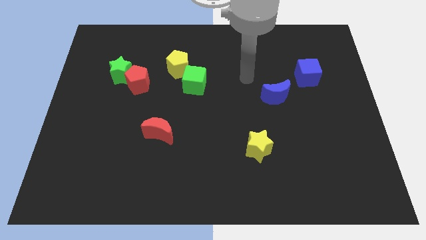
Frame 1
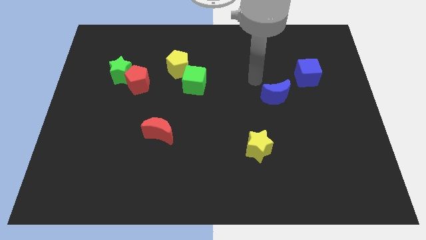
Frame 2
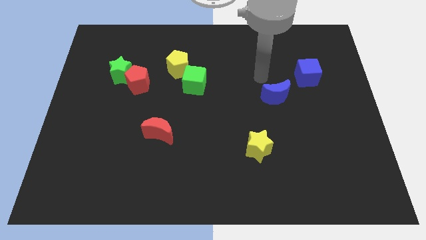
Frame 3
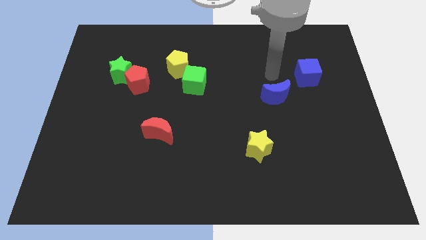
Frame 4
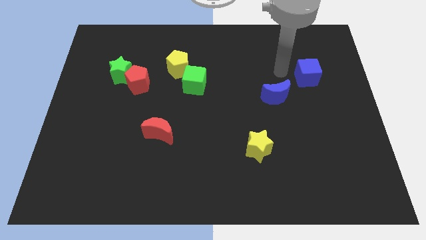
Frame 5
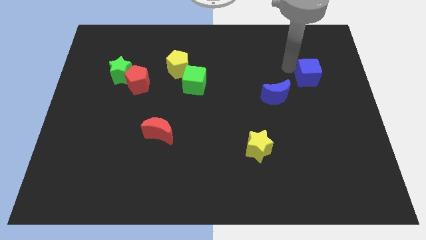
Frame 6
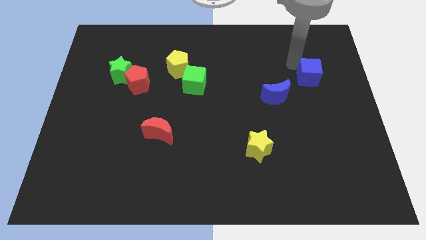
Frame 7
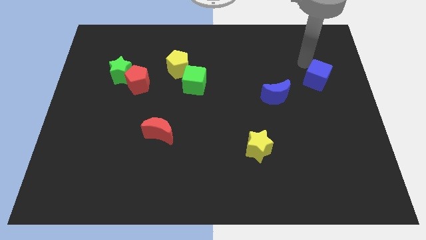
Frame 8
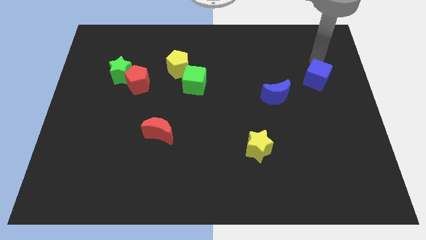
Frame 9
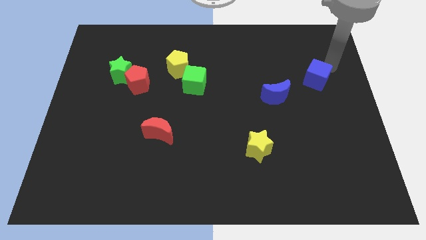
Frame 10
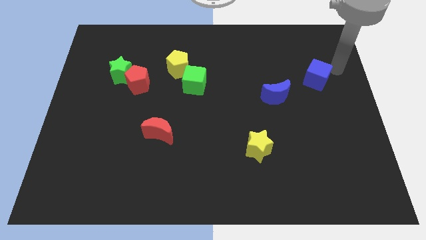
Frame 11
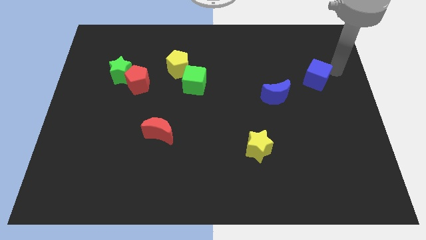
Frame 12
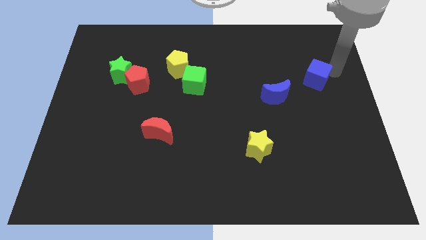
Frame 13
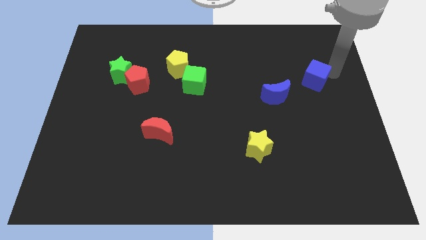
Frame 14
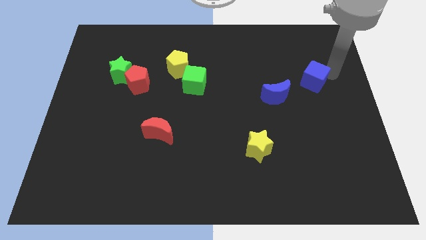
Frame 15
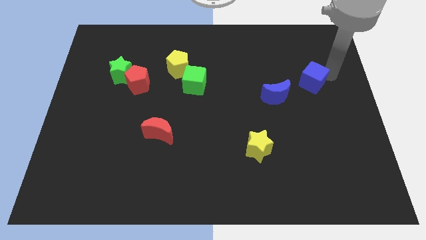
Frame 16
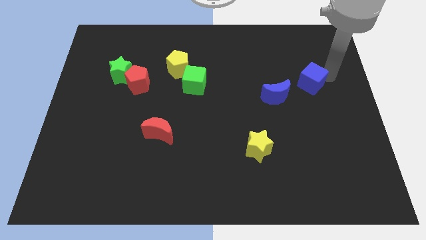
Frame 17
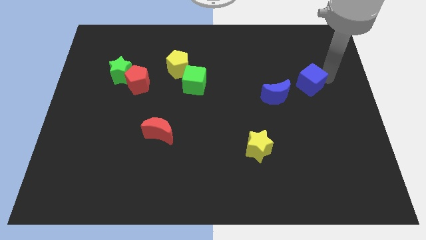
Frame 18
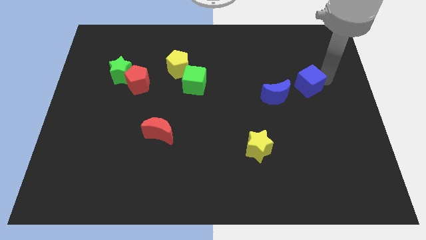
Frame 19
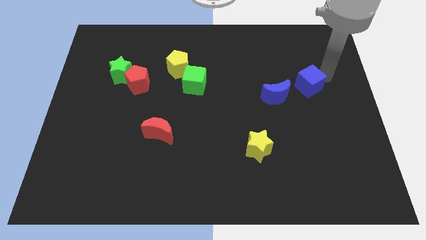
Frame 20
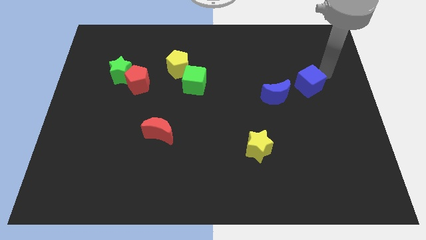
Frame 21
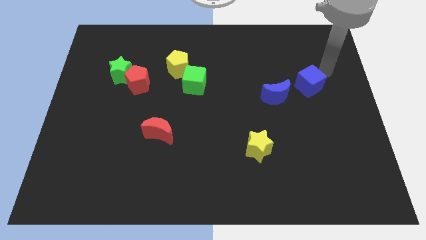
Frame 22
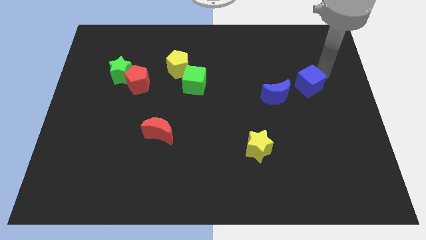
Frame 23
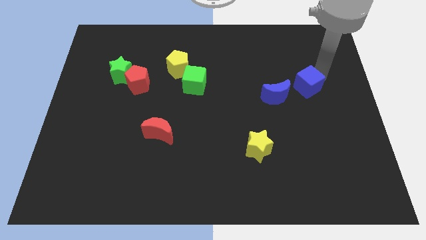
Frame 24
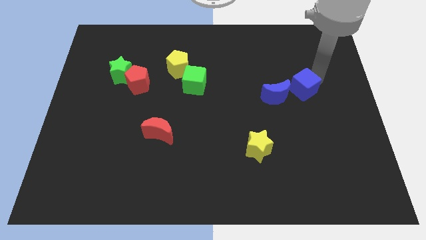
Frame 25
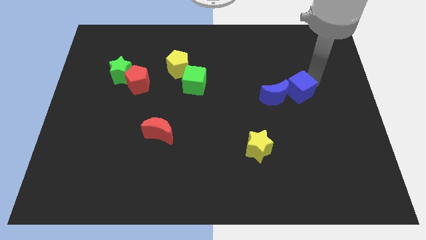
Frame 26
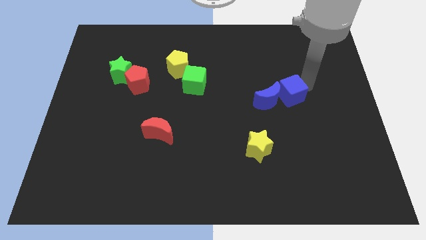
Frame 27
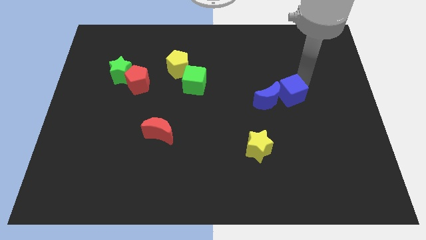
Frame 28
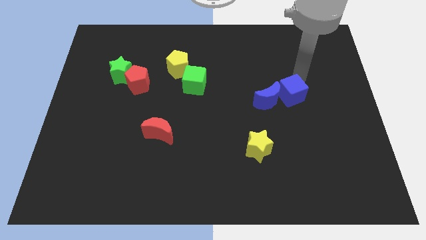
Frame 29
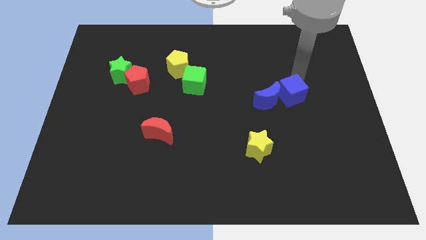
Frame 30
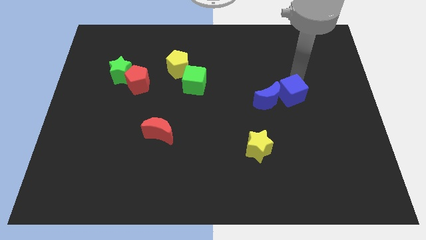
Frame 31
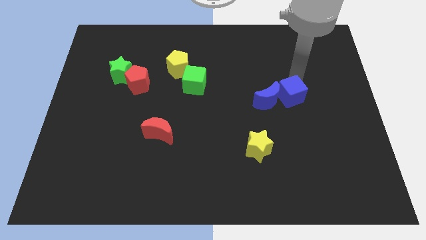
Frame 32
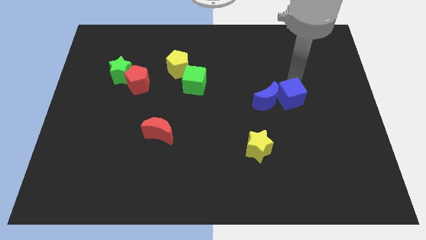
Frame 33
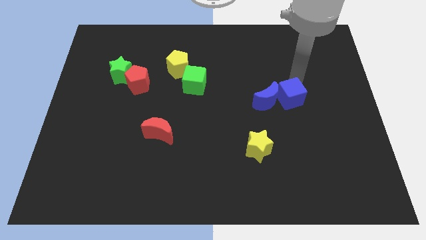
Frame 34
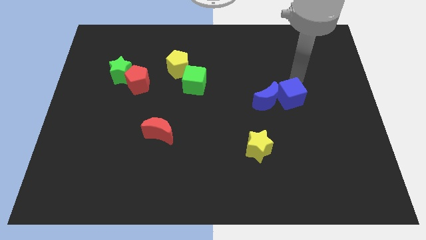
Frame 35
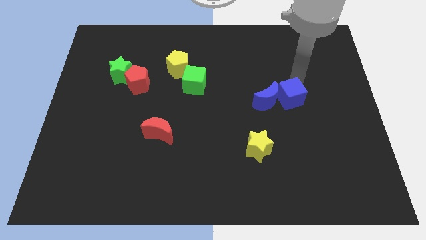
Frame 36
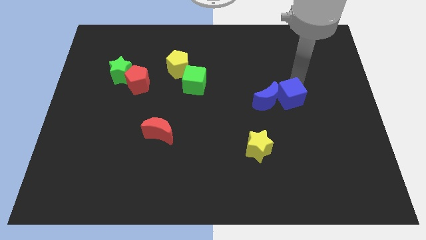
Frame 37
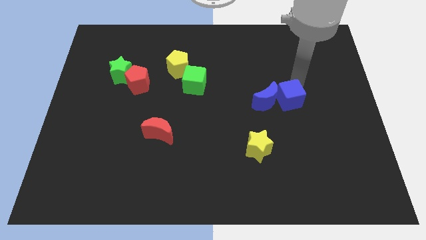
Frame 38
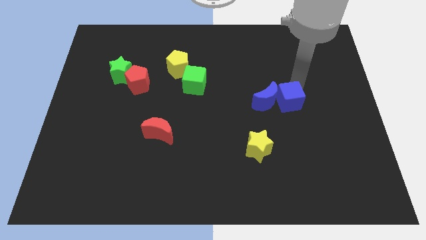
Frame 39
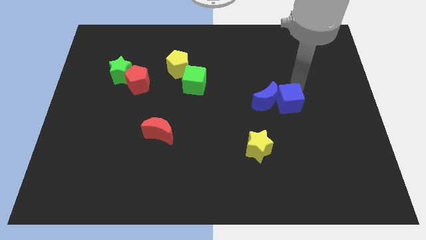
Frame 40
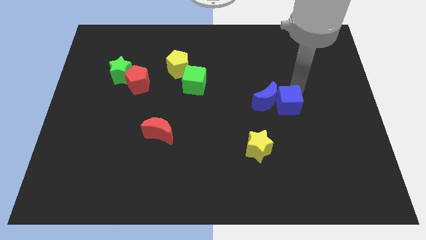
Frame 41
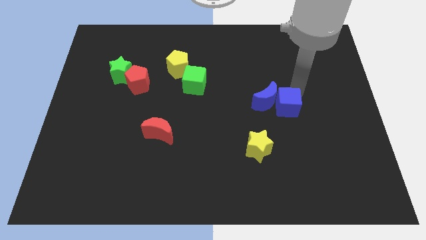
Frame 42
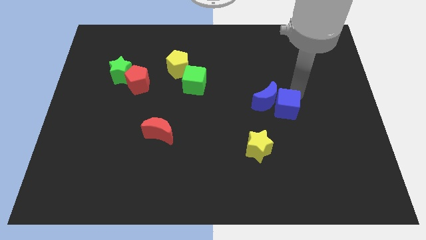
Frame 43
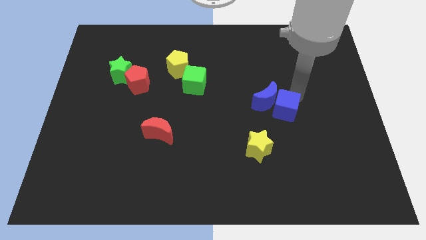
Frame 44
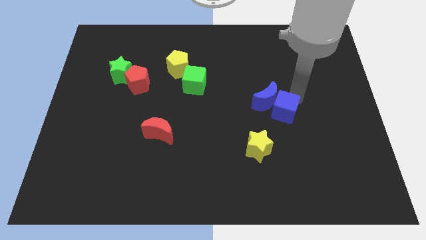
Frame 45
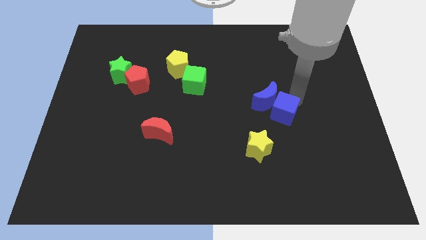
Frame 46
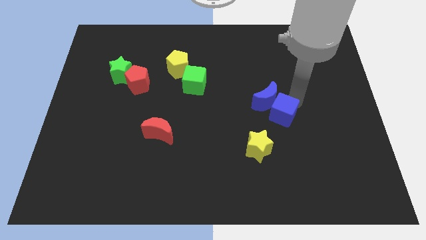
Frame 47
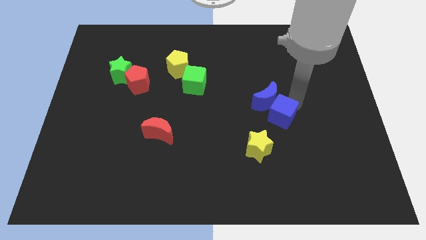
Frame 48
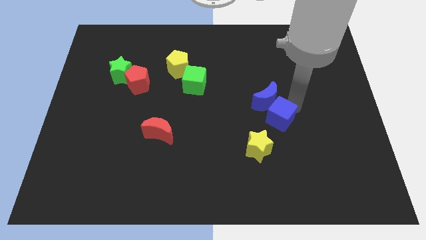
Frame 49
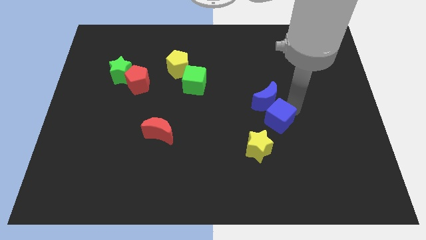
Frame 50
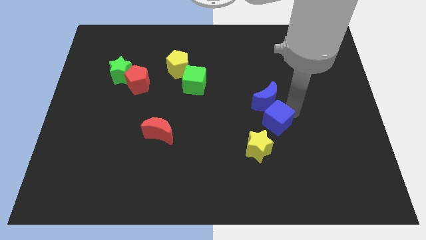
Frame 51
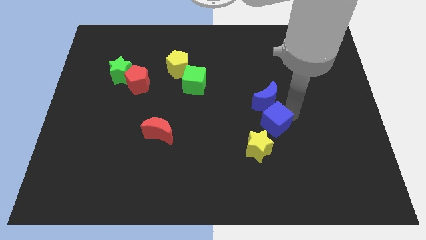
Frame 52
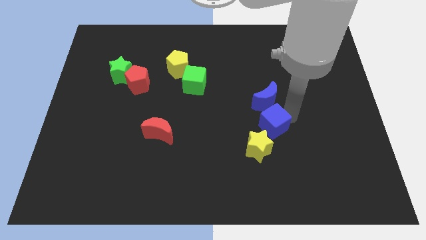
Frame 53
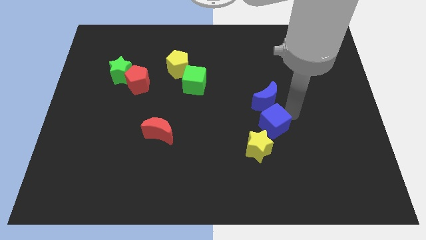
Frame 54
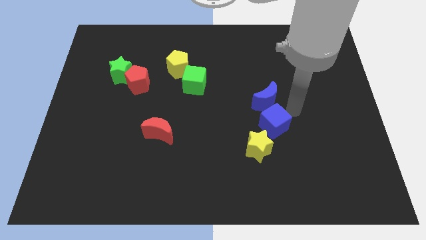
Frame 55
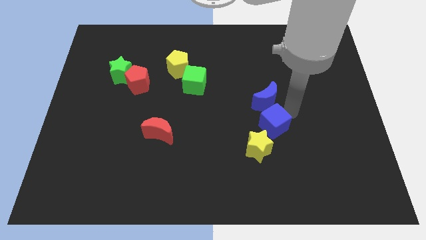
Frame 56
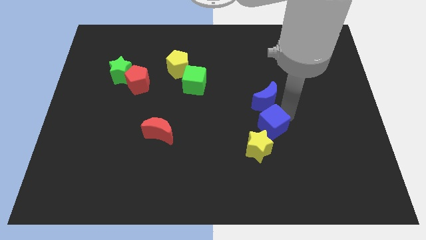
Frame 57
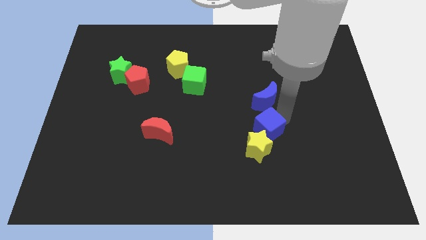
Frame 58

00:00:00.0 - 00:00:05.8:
push the blue cube next to the yellow star

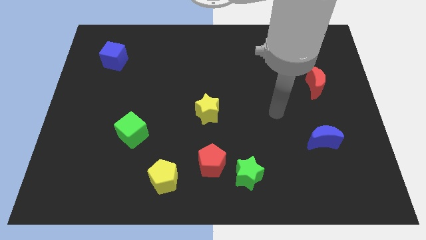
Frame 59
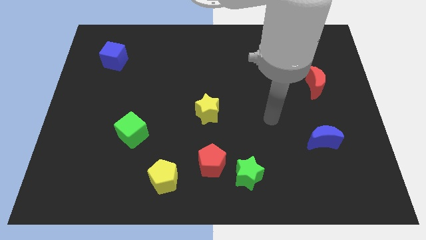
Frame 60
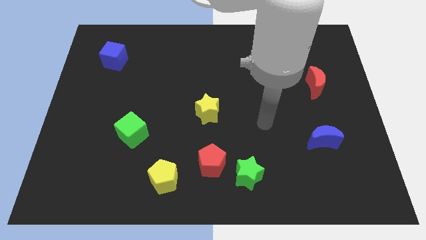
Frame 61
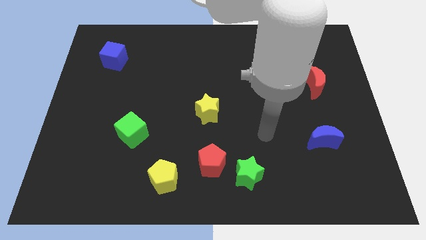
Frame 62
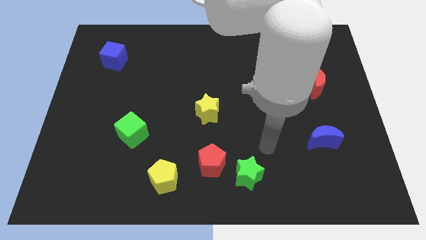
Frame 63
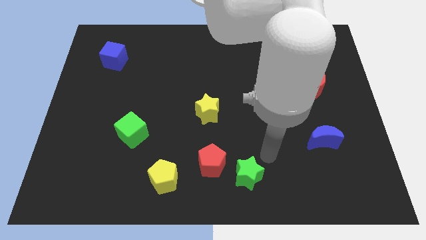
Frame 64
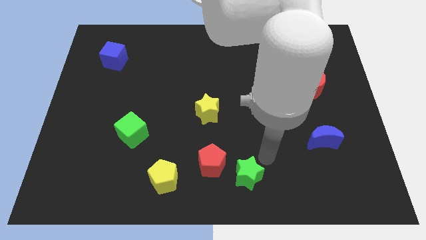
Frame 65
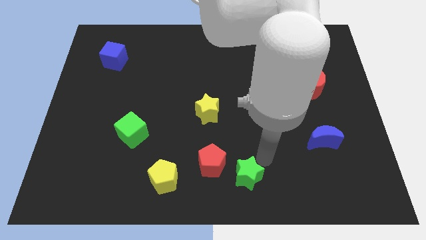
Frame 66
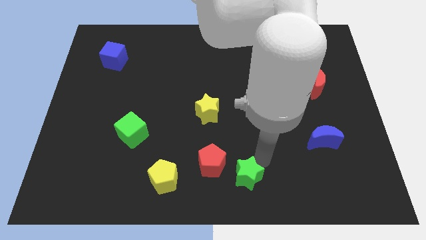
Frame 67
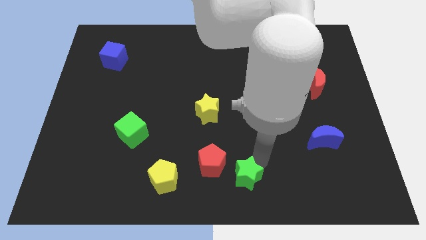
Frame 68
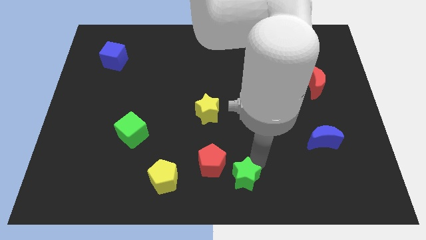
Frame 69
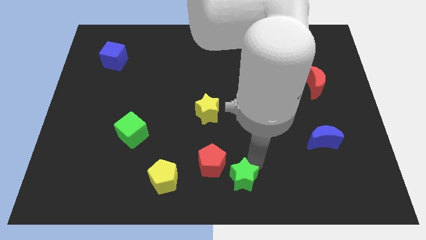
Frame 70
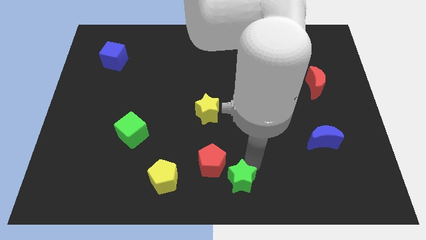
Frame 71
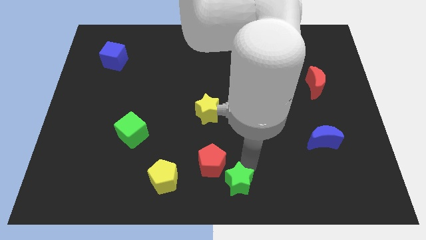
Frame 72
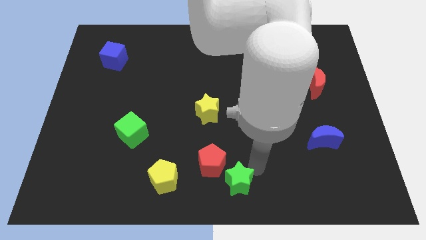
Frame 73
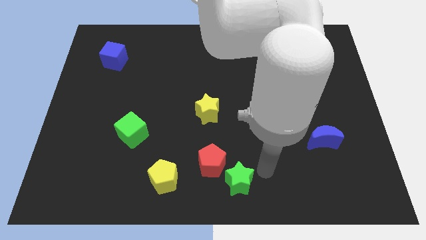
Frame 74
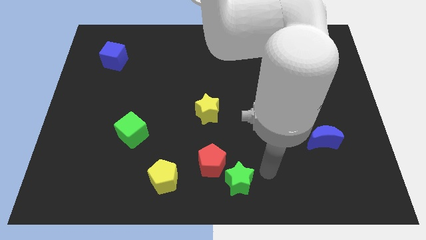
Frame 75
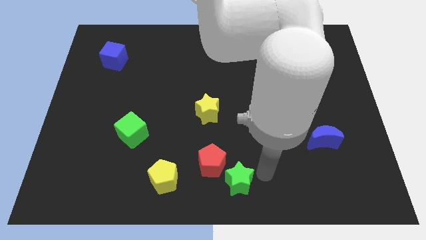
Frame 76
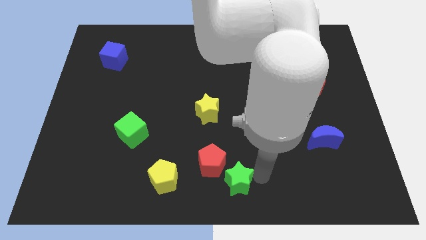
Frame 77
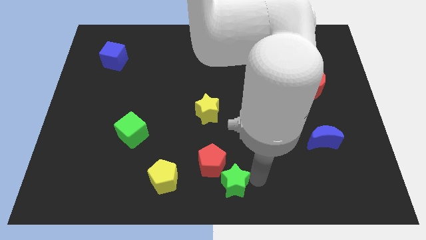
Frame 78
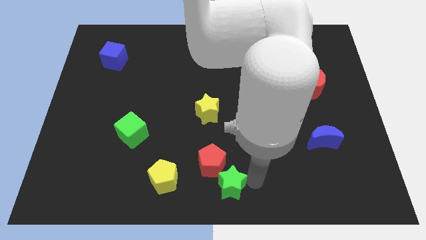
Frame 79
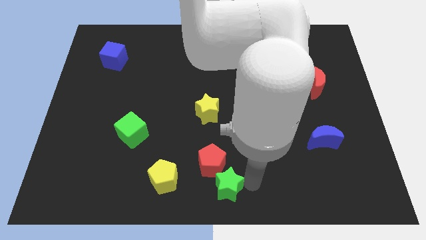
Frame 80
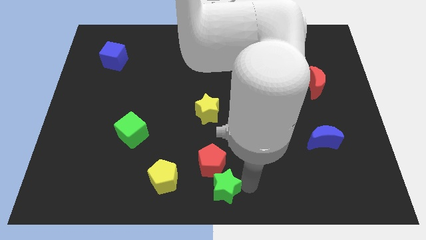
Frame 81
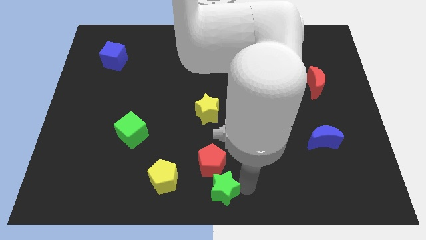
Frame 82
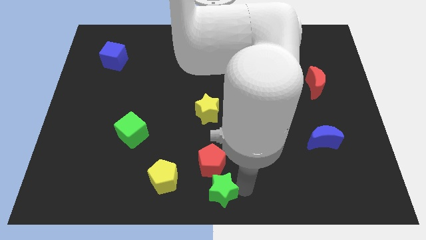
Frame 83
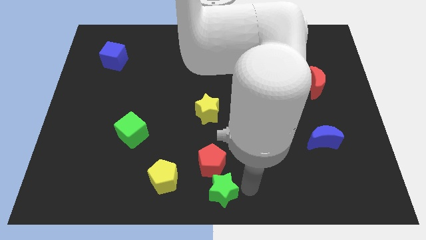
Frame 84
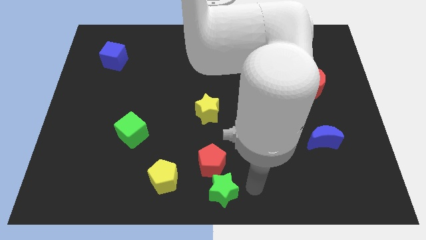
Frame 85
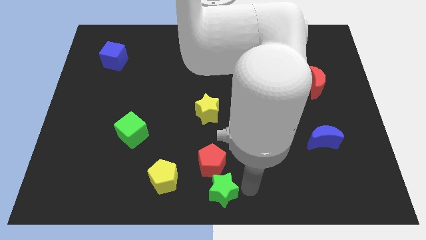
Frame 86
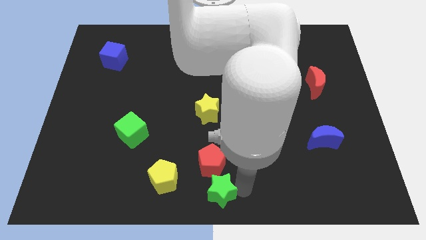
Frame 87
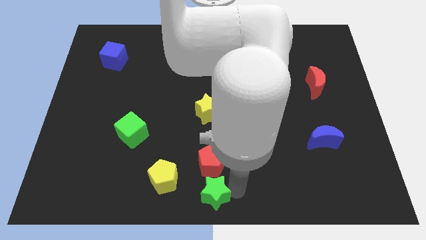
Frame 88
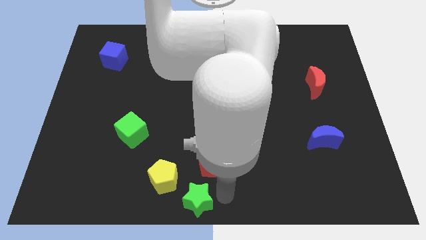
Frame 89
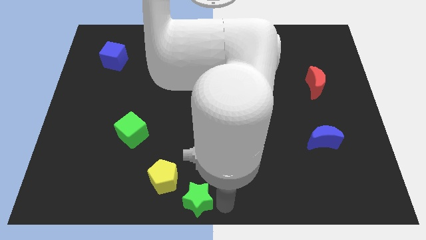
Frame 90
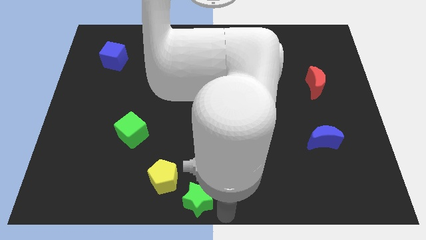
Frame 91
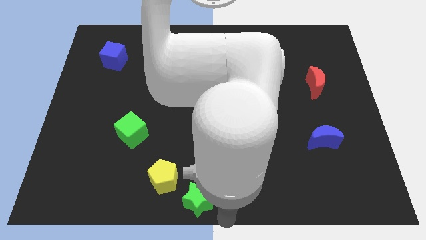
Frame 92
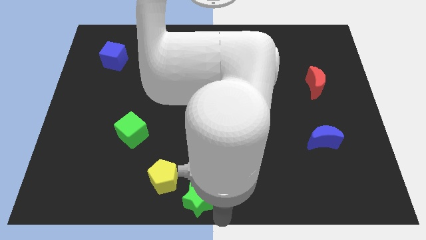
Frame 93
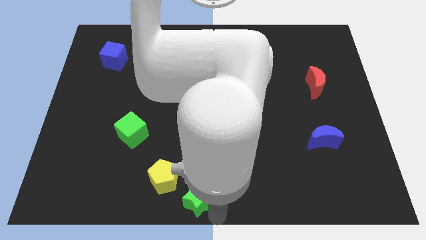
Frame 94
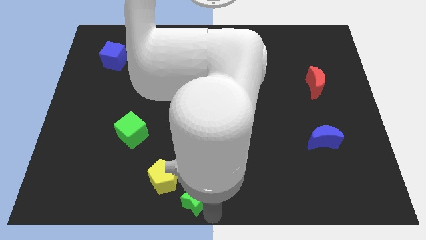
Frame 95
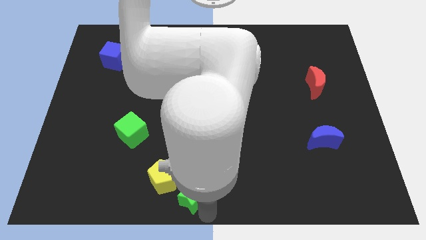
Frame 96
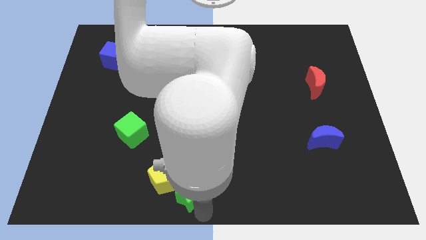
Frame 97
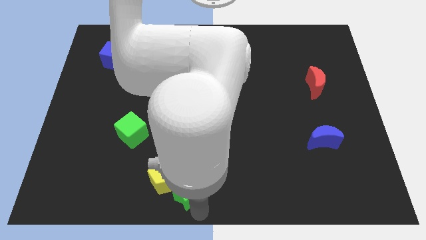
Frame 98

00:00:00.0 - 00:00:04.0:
put the green star close to the yellow pentagon
